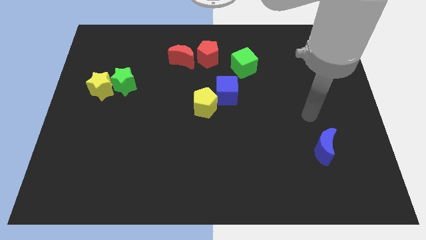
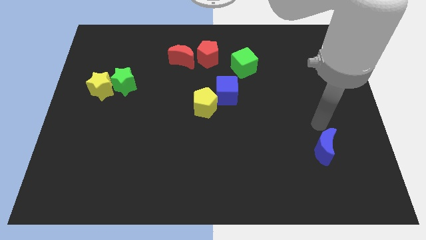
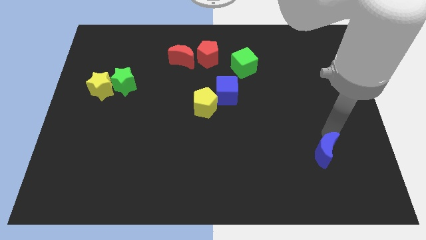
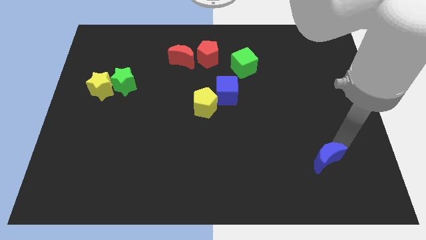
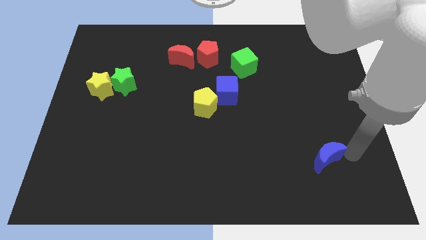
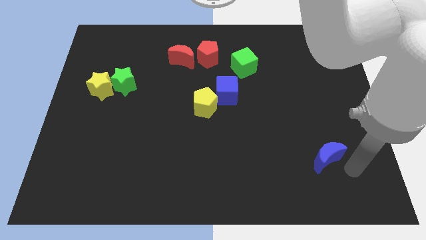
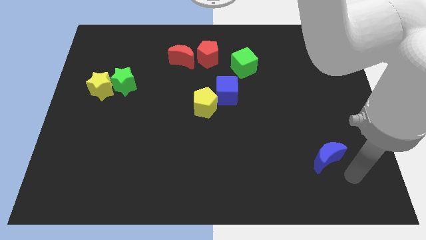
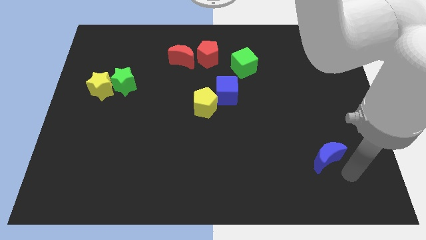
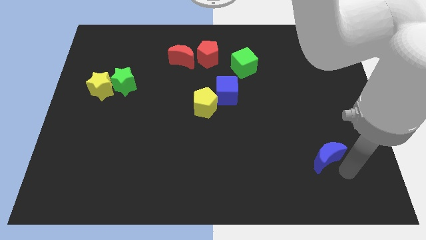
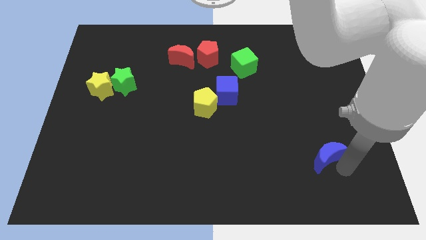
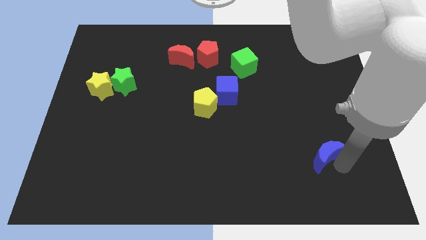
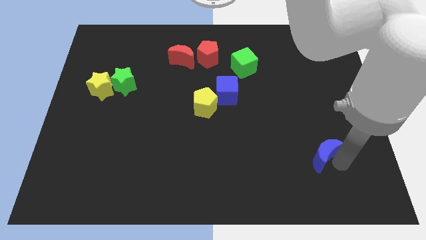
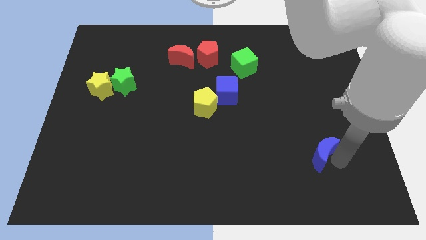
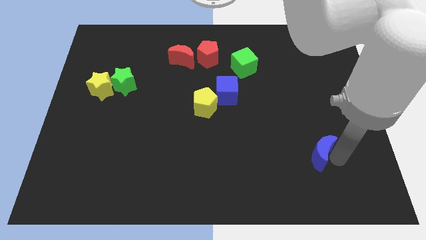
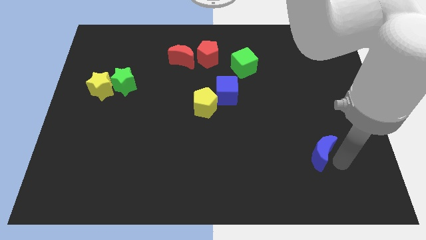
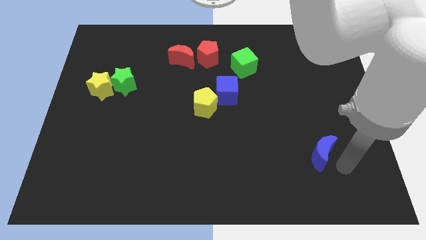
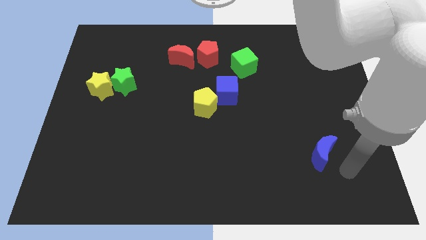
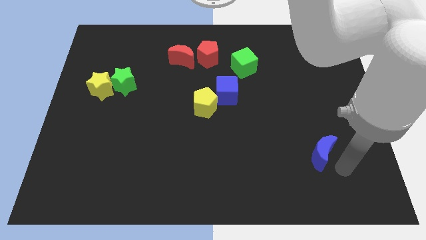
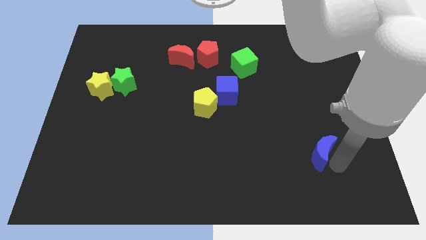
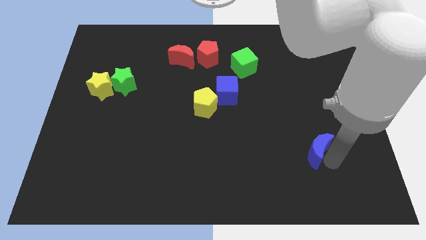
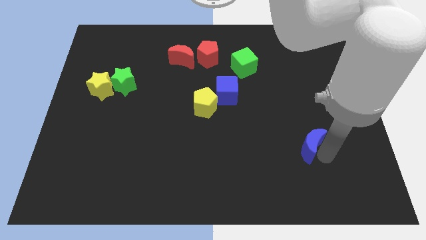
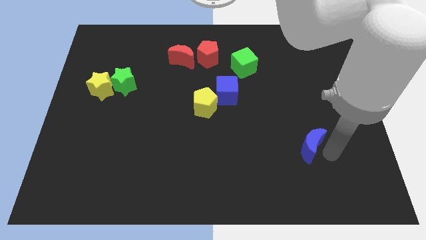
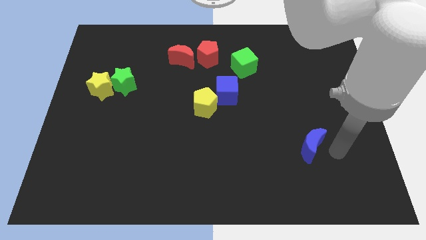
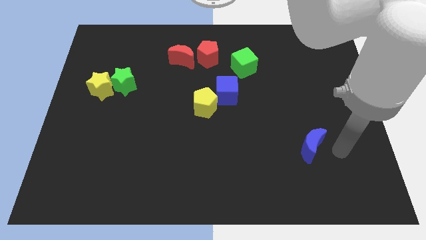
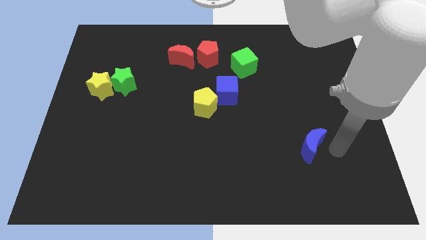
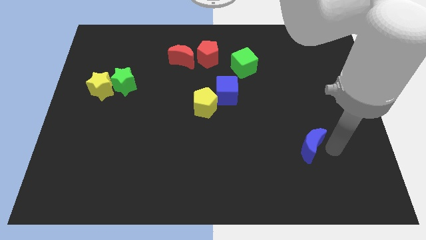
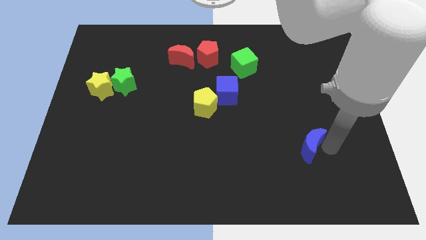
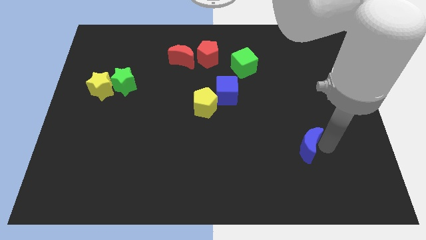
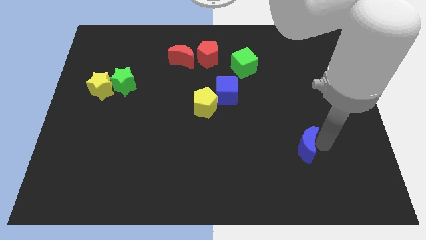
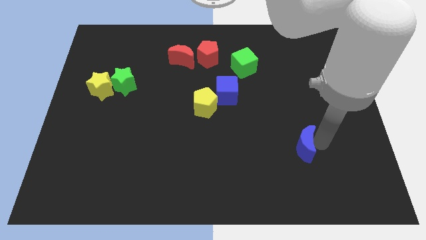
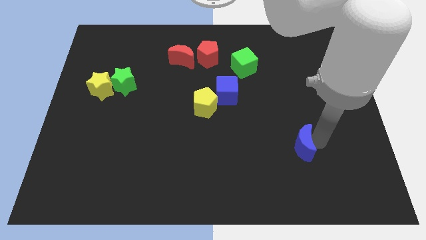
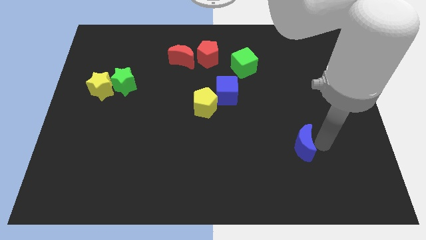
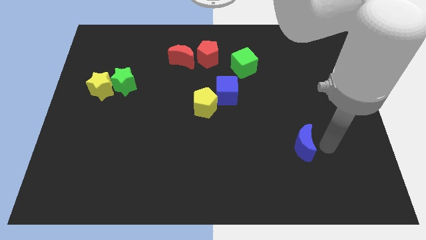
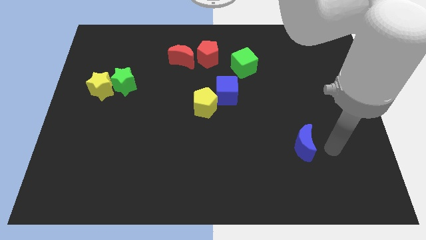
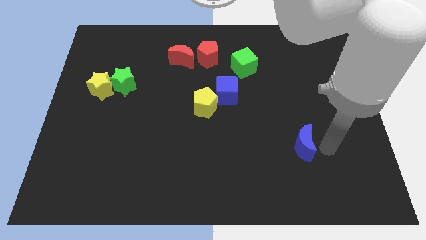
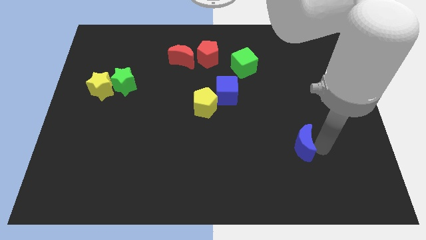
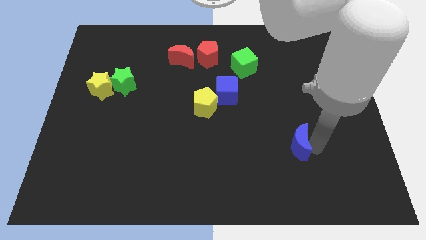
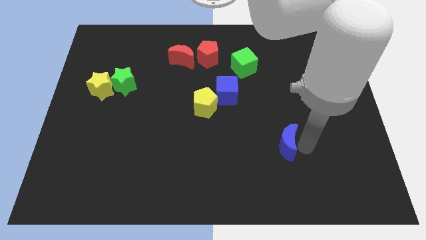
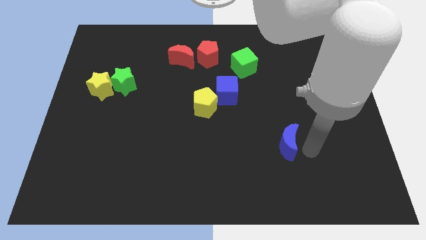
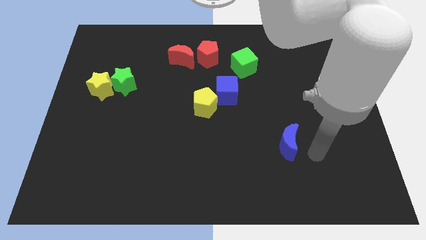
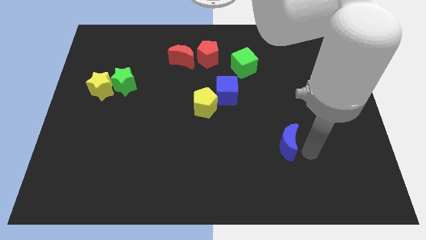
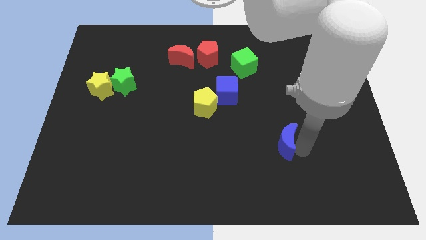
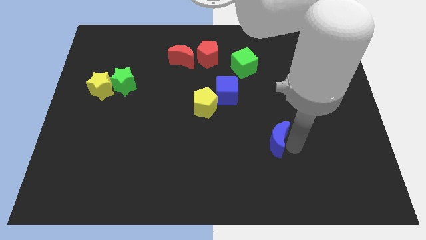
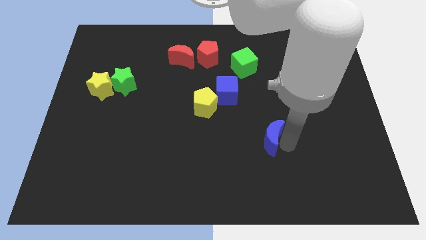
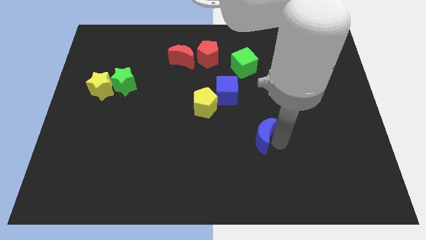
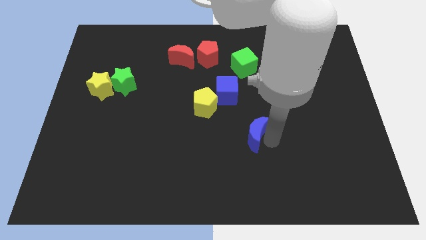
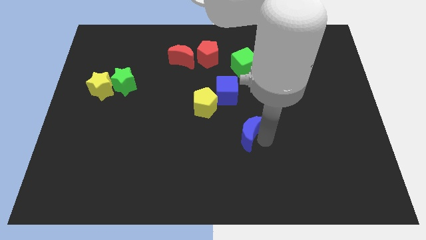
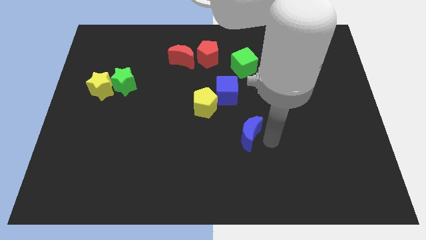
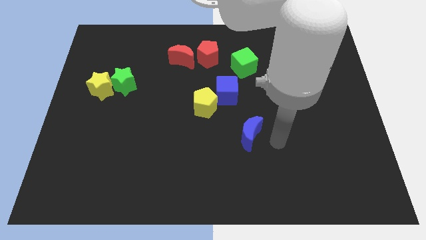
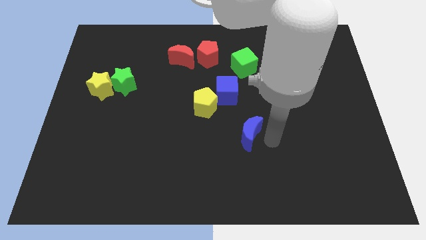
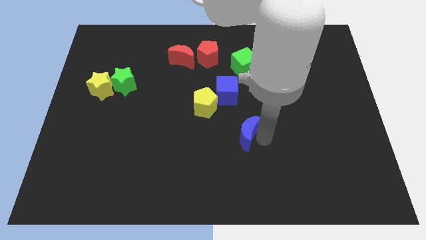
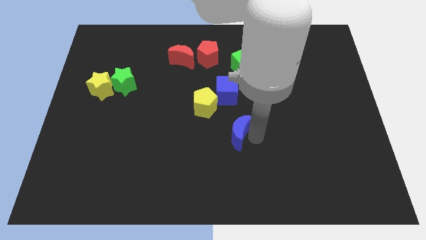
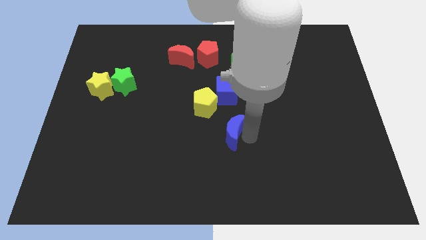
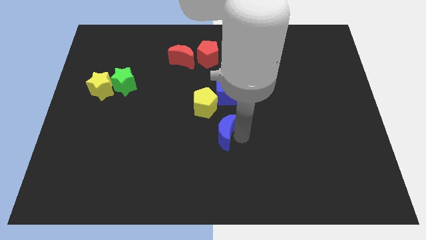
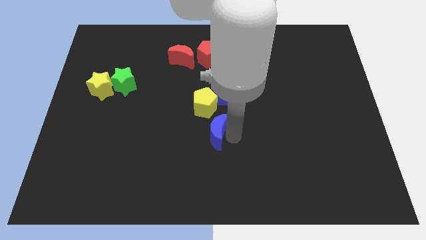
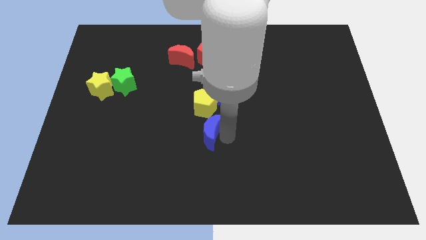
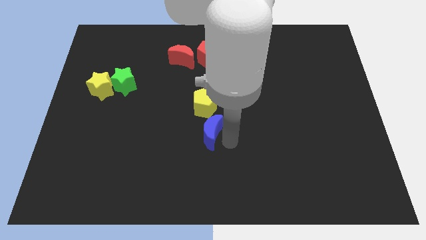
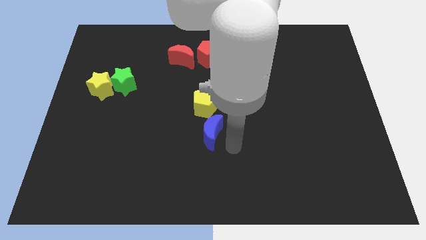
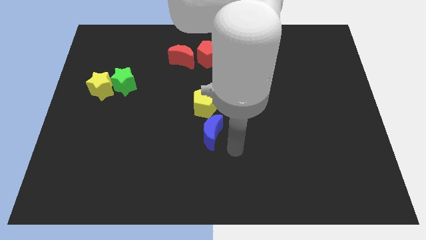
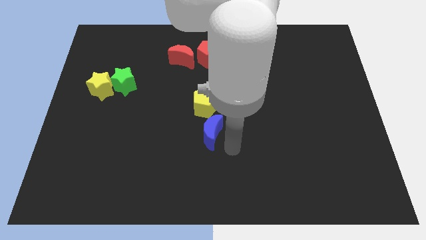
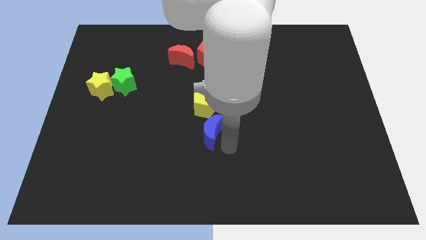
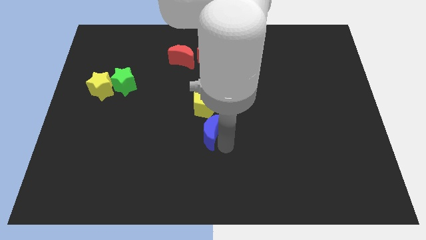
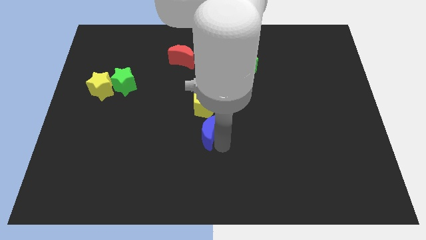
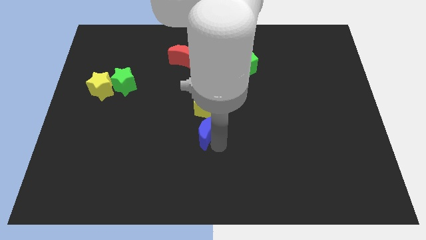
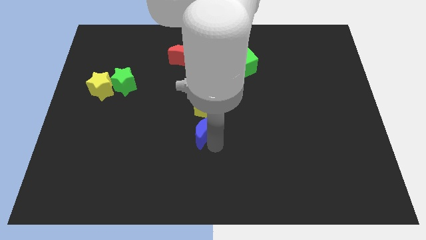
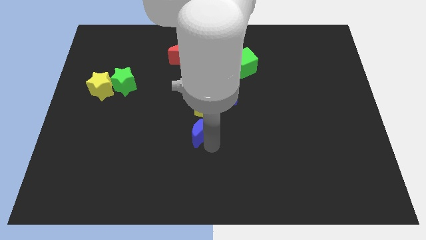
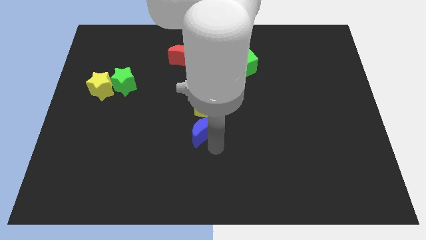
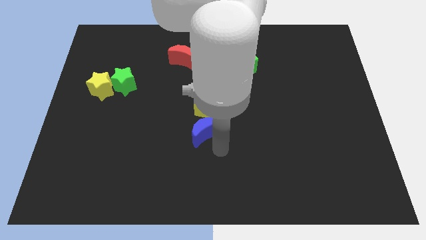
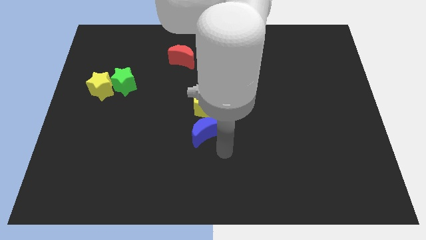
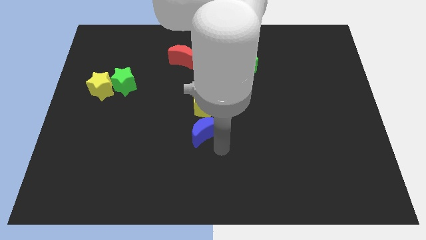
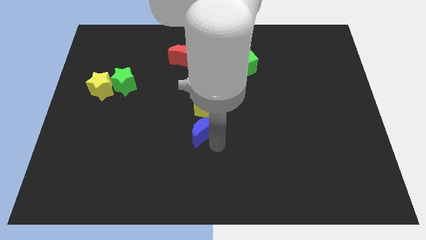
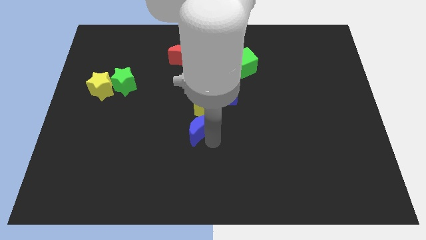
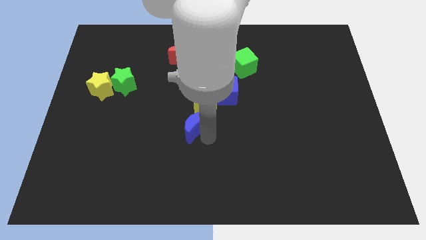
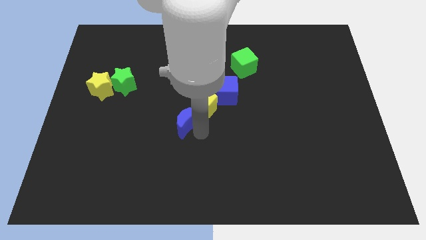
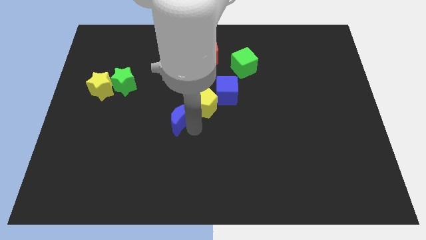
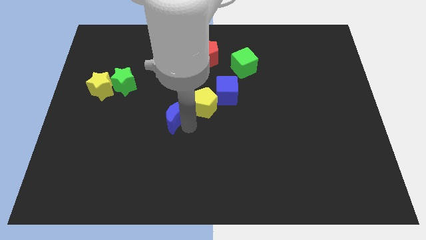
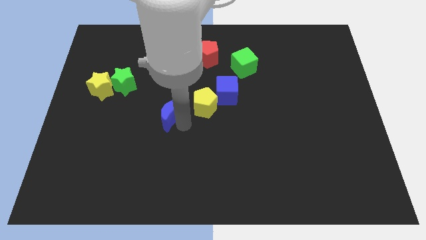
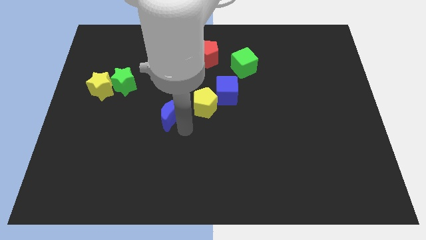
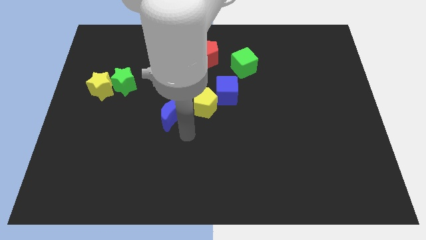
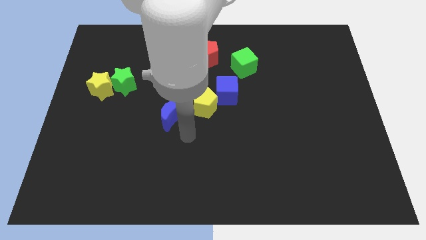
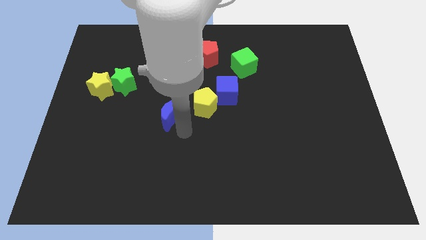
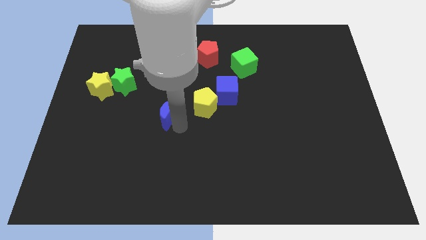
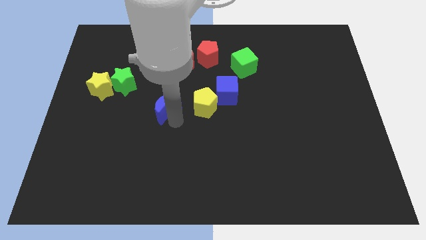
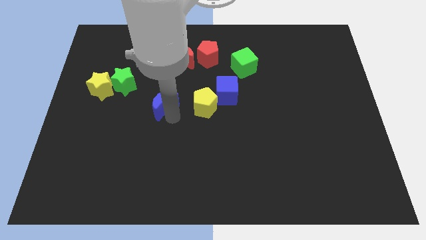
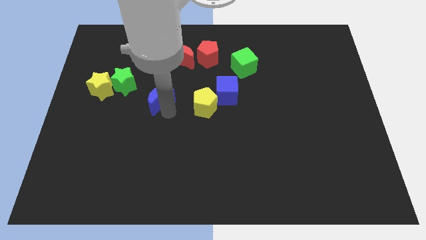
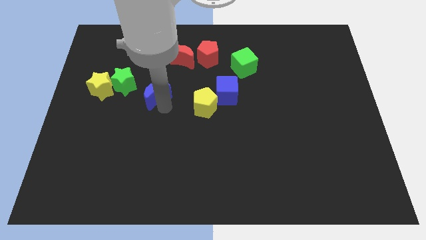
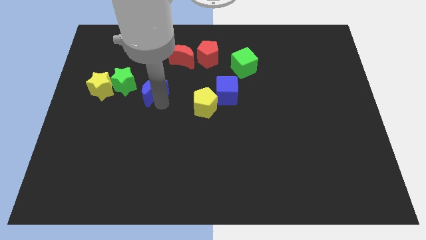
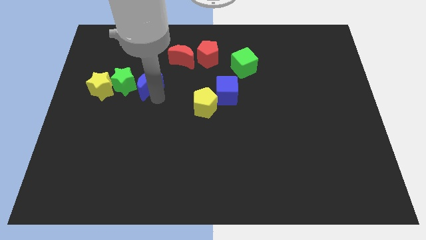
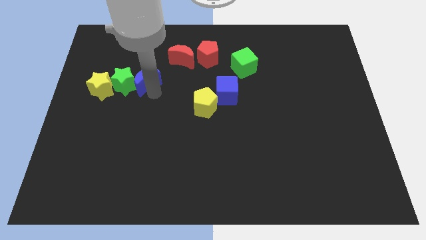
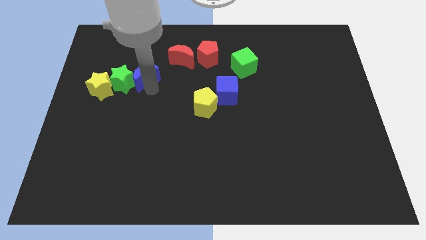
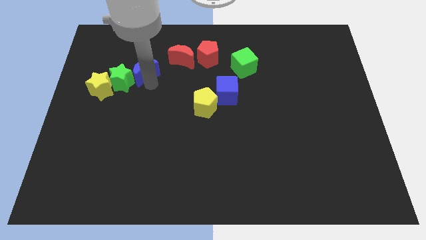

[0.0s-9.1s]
put the blue moon to the top right of the yellow star
